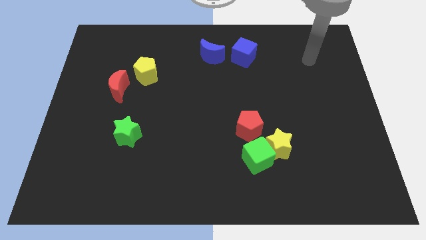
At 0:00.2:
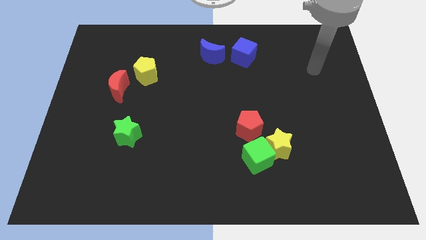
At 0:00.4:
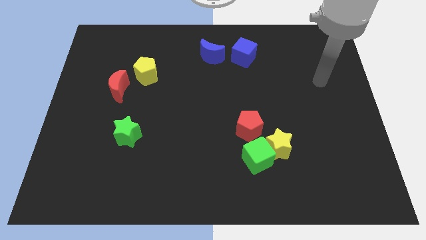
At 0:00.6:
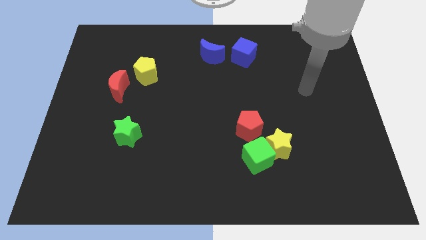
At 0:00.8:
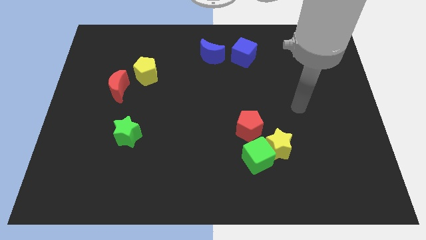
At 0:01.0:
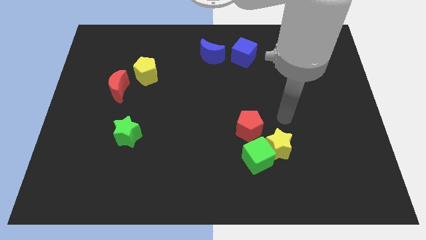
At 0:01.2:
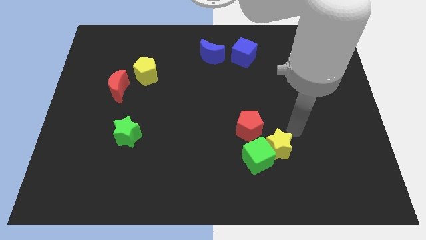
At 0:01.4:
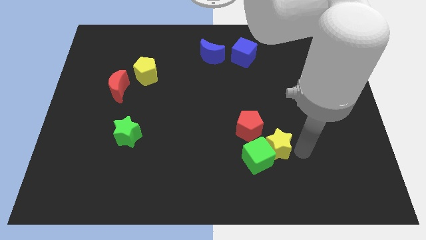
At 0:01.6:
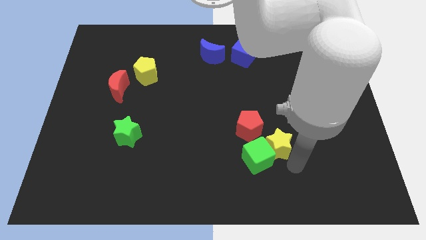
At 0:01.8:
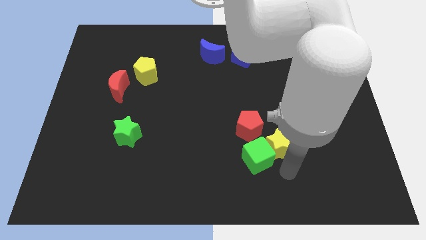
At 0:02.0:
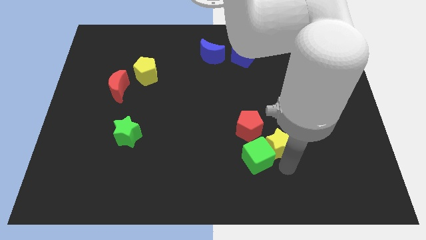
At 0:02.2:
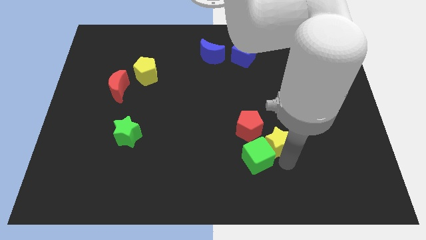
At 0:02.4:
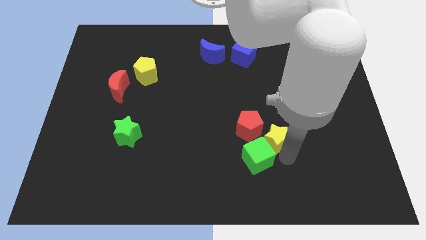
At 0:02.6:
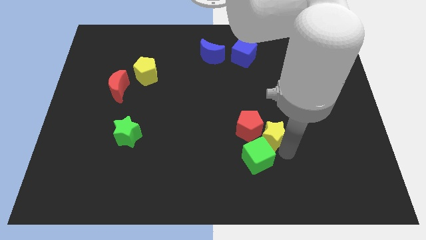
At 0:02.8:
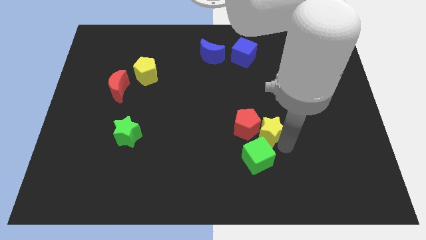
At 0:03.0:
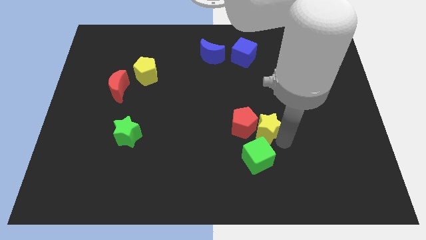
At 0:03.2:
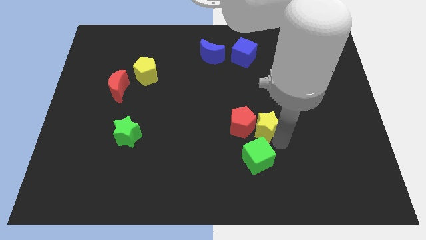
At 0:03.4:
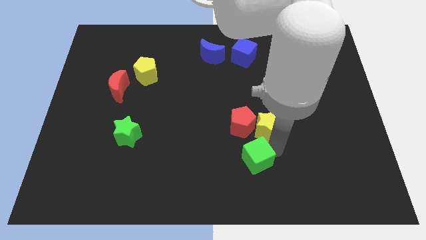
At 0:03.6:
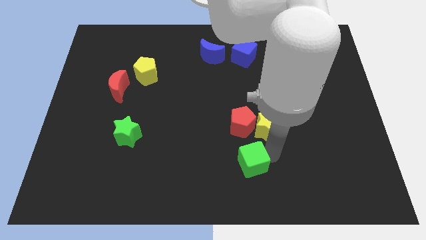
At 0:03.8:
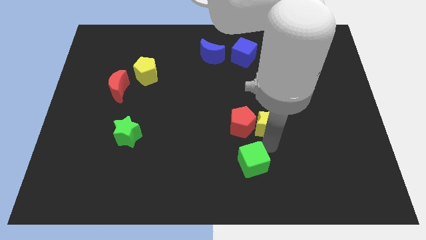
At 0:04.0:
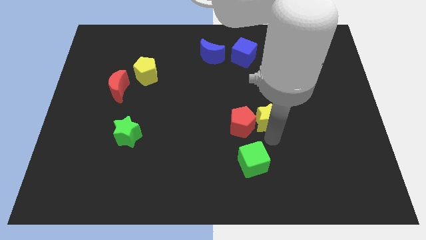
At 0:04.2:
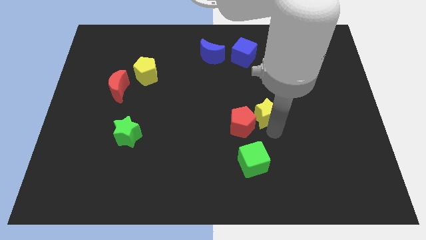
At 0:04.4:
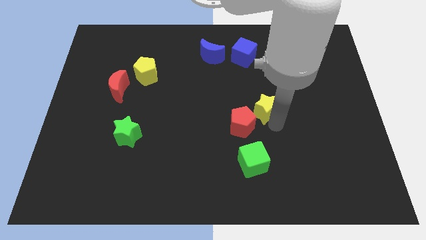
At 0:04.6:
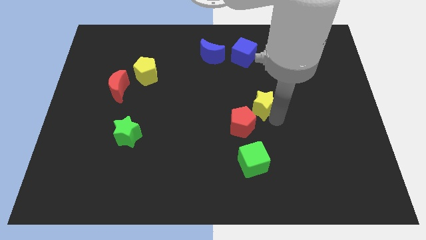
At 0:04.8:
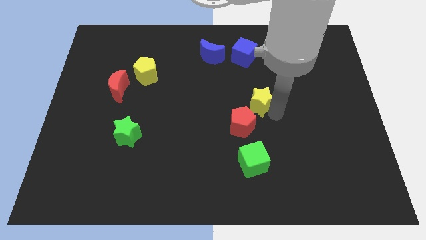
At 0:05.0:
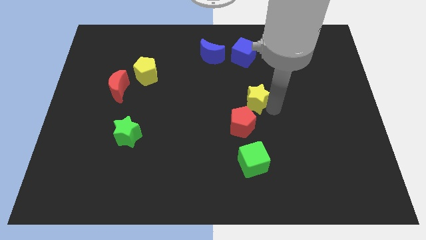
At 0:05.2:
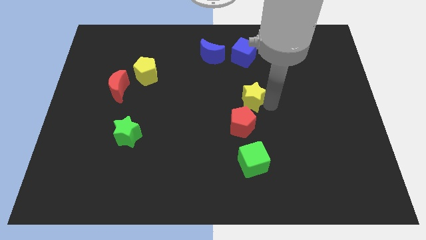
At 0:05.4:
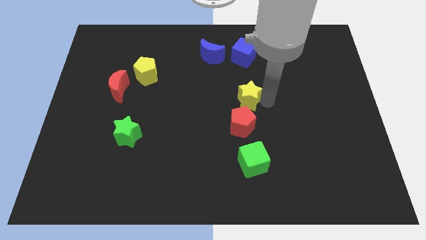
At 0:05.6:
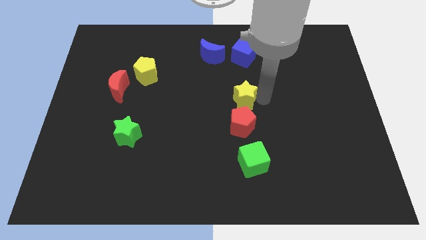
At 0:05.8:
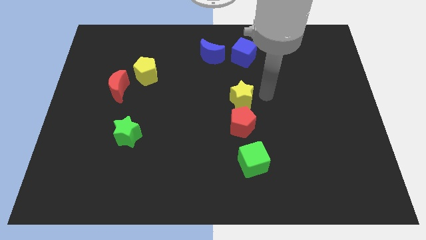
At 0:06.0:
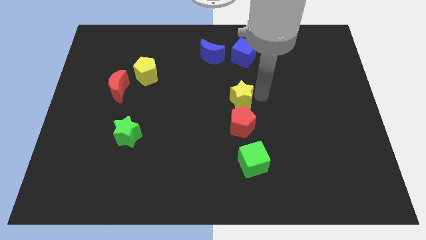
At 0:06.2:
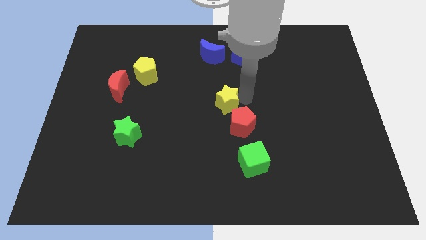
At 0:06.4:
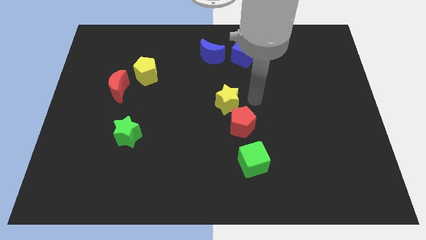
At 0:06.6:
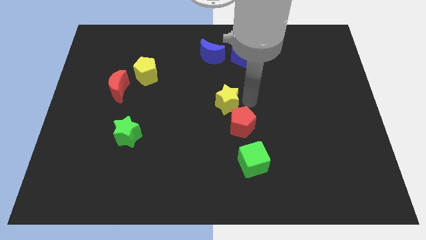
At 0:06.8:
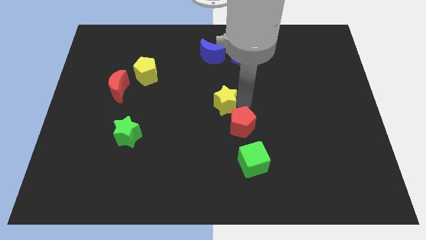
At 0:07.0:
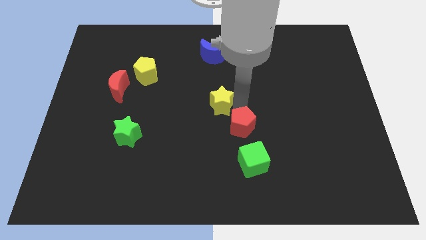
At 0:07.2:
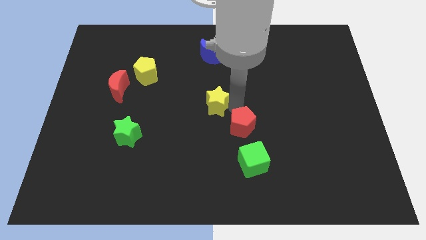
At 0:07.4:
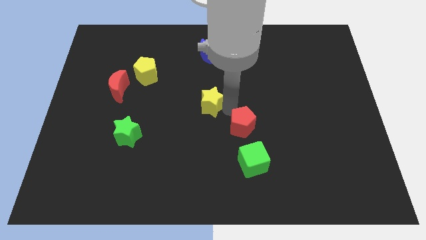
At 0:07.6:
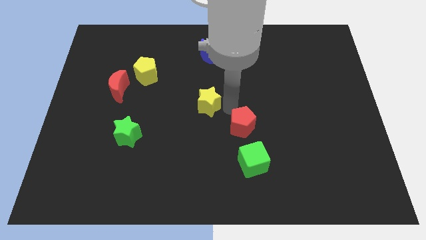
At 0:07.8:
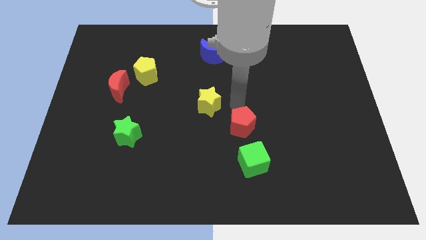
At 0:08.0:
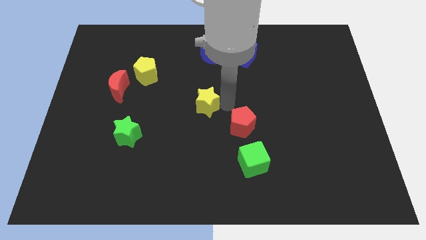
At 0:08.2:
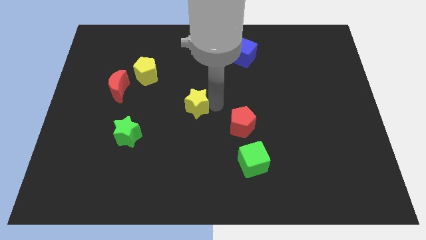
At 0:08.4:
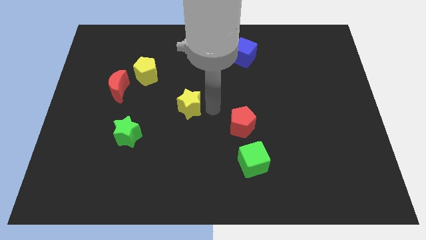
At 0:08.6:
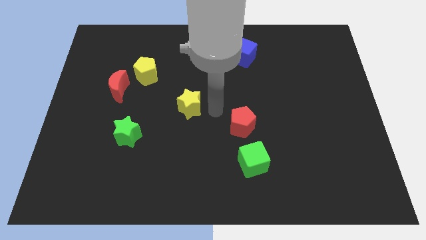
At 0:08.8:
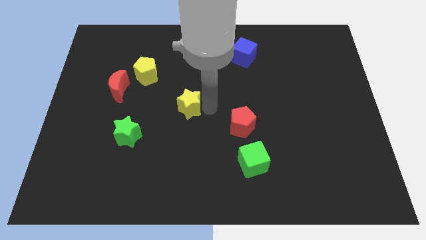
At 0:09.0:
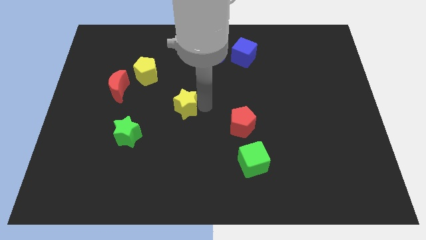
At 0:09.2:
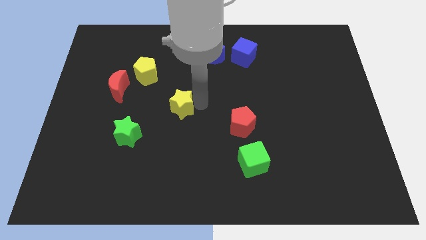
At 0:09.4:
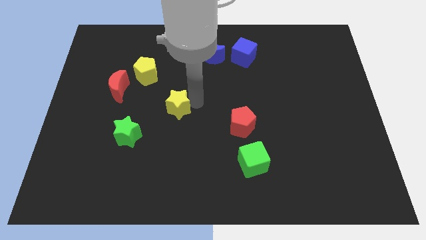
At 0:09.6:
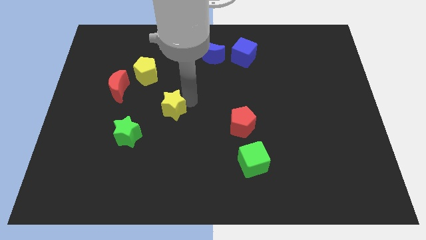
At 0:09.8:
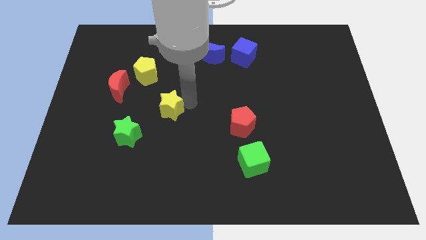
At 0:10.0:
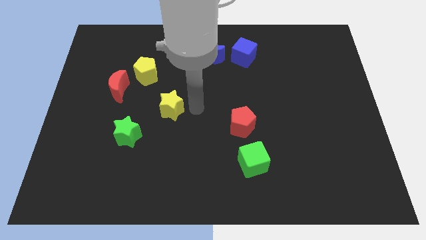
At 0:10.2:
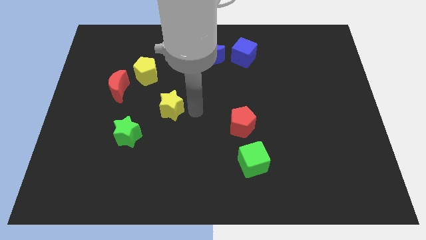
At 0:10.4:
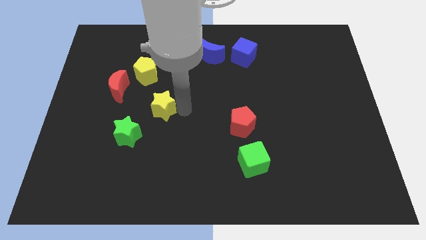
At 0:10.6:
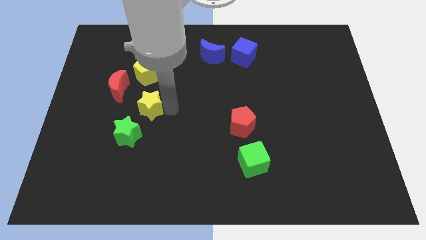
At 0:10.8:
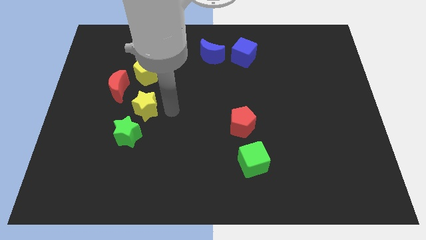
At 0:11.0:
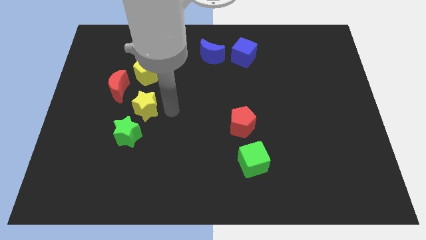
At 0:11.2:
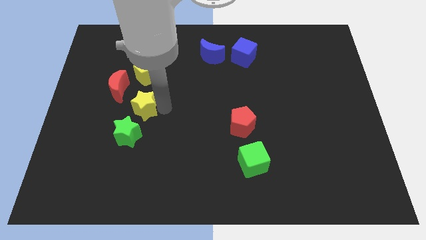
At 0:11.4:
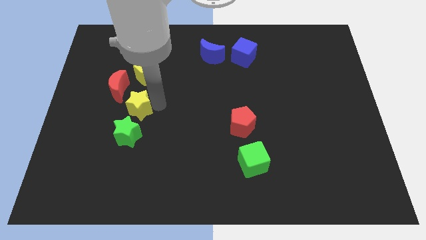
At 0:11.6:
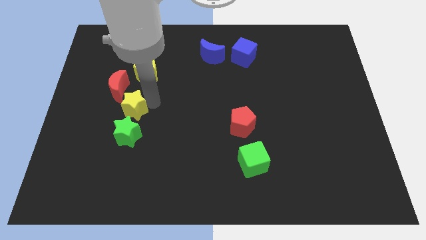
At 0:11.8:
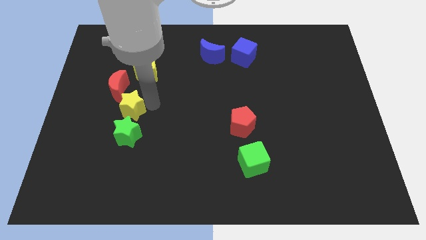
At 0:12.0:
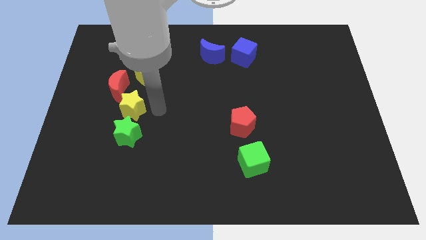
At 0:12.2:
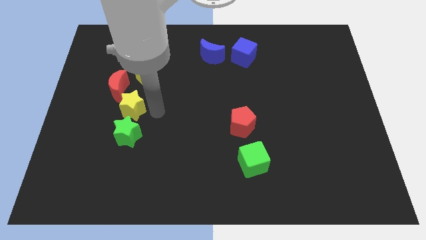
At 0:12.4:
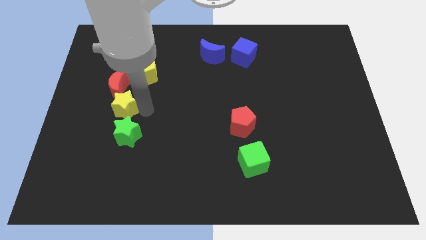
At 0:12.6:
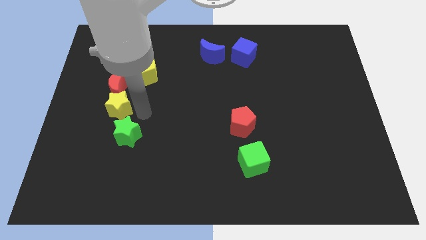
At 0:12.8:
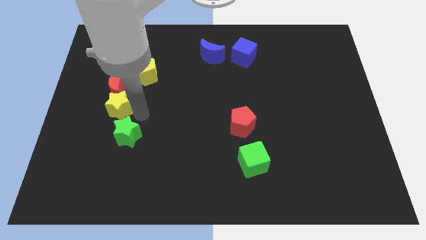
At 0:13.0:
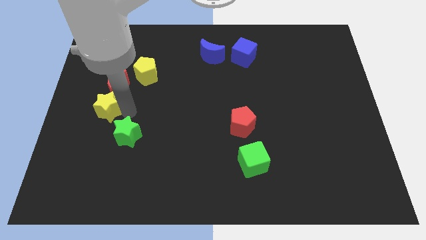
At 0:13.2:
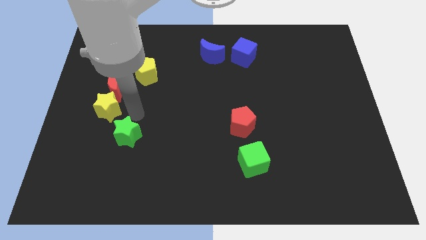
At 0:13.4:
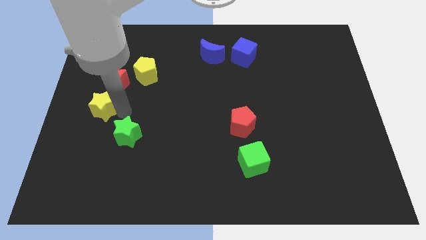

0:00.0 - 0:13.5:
put the yellow star to the left side of the board
